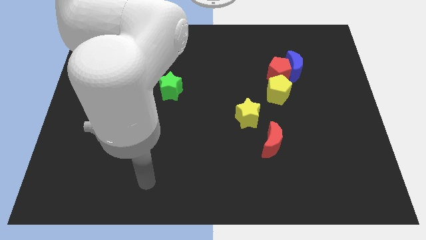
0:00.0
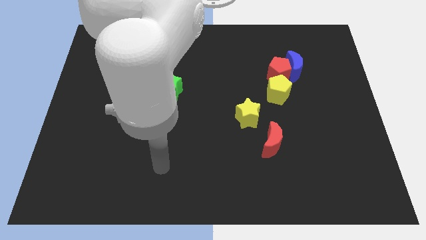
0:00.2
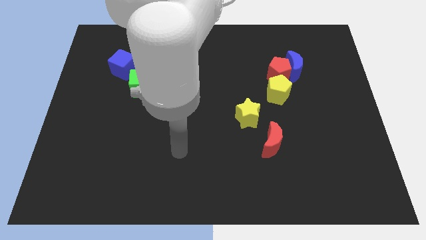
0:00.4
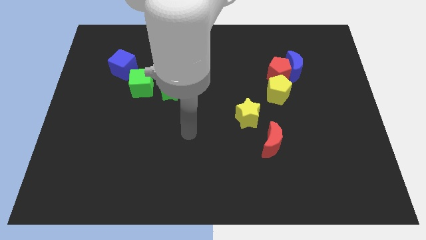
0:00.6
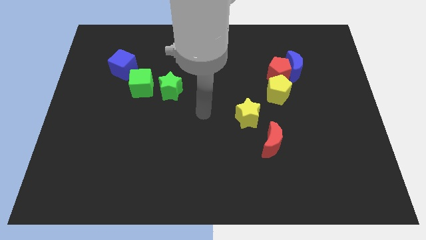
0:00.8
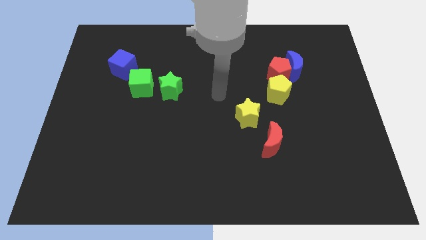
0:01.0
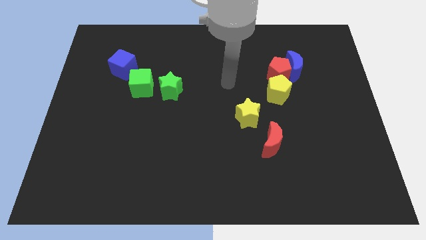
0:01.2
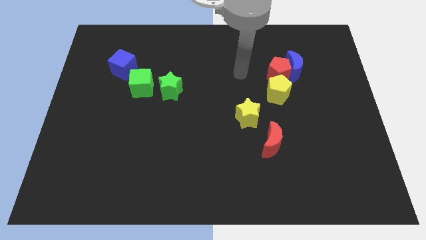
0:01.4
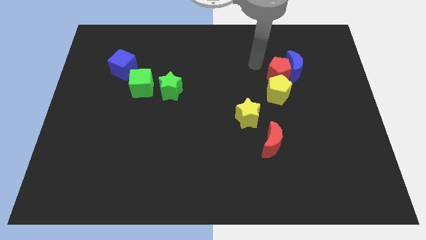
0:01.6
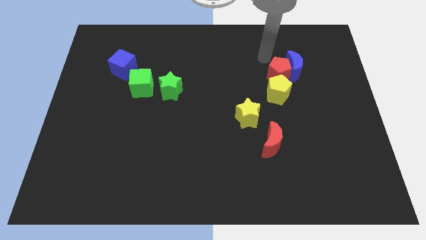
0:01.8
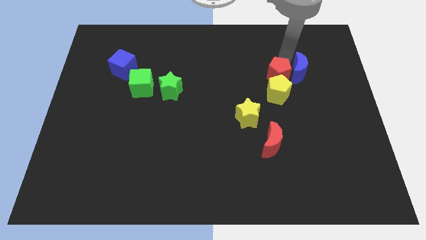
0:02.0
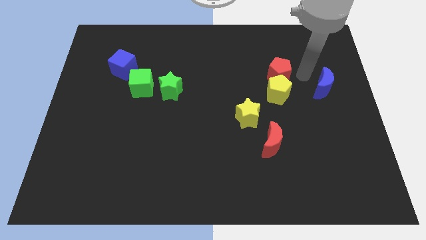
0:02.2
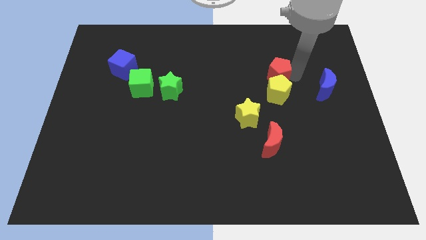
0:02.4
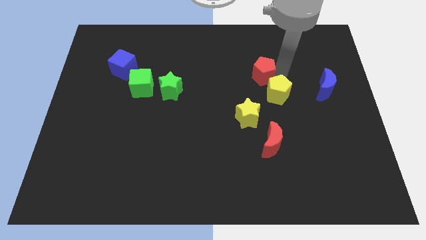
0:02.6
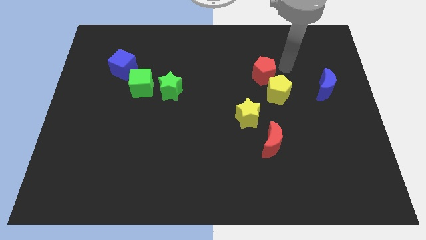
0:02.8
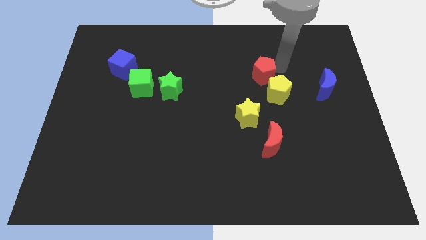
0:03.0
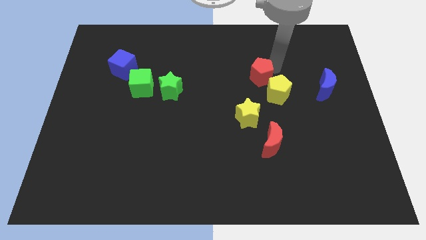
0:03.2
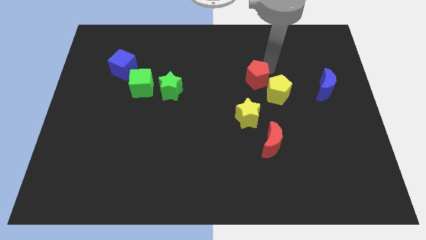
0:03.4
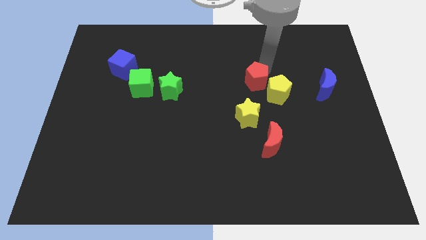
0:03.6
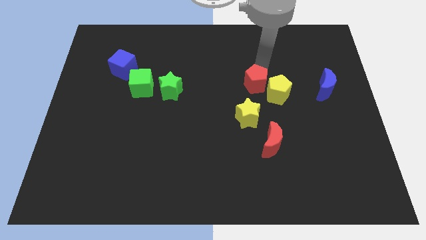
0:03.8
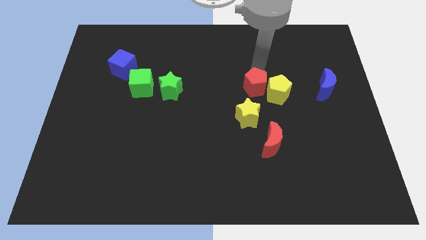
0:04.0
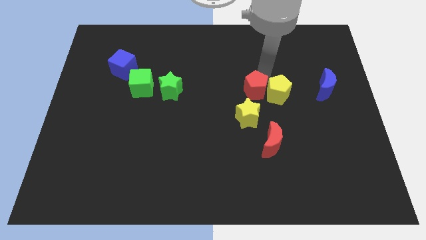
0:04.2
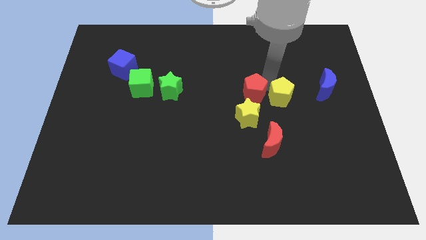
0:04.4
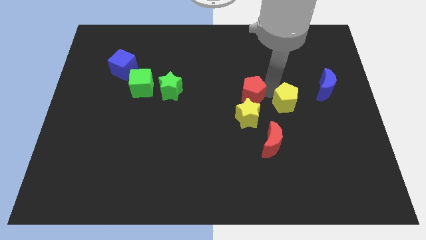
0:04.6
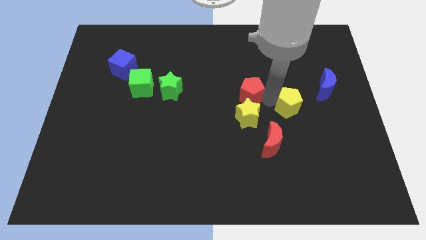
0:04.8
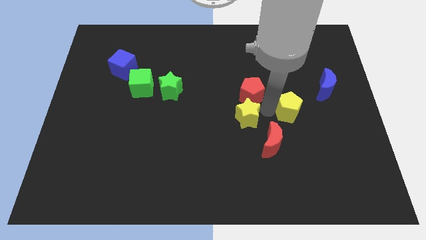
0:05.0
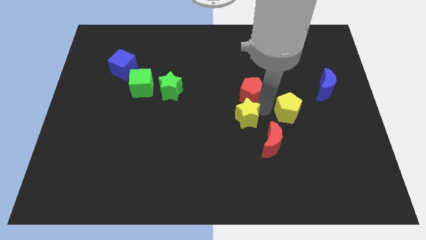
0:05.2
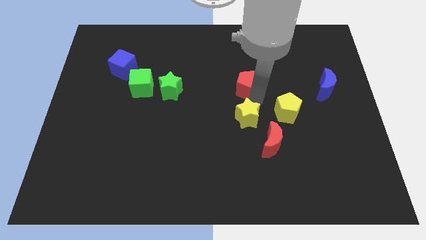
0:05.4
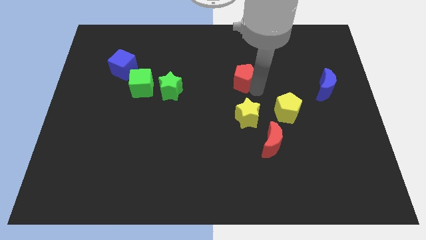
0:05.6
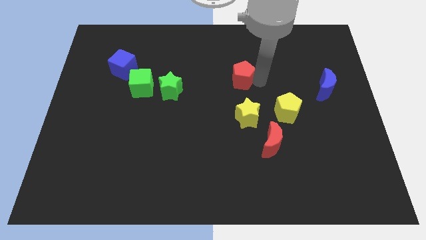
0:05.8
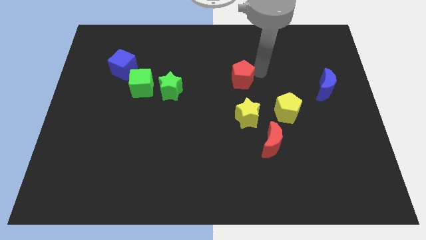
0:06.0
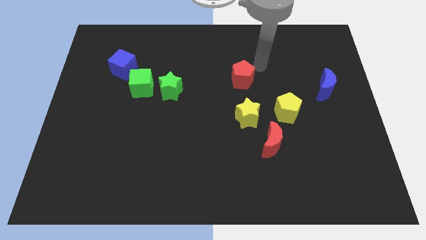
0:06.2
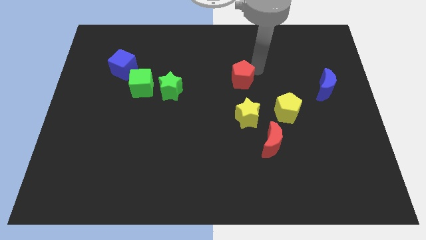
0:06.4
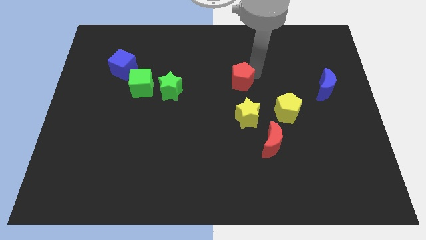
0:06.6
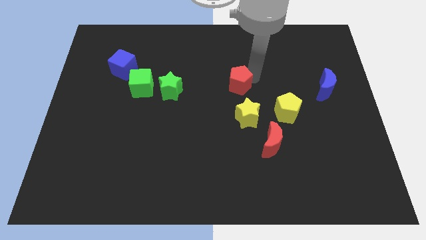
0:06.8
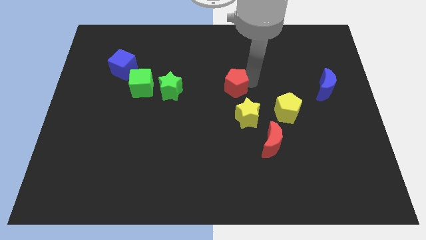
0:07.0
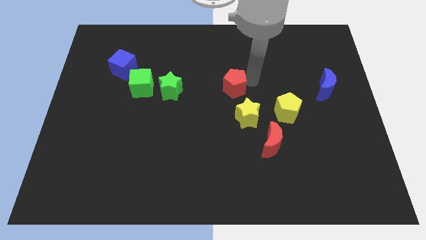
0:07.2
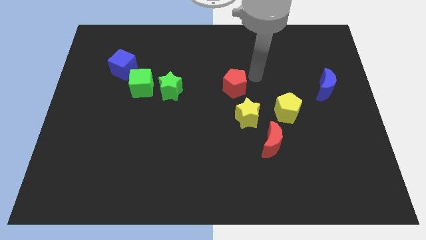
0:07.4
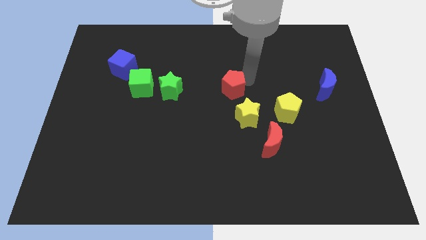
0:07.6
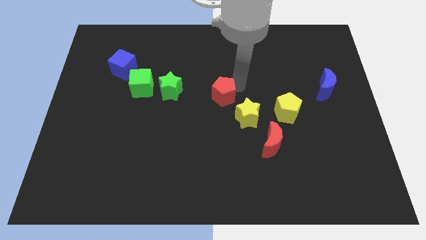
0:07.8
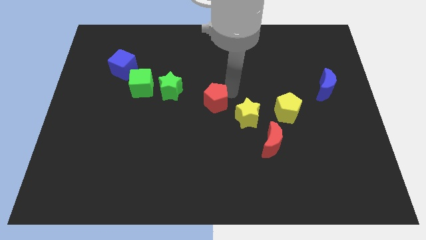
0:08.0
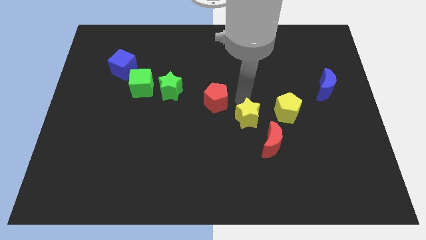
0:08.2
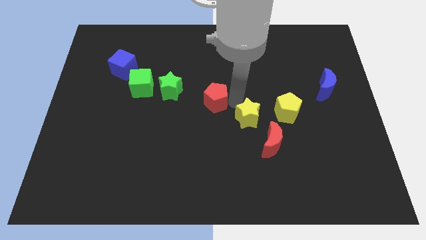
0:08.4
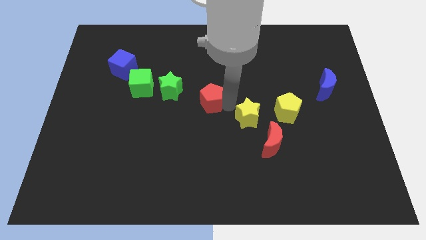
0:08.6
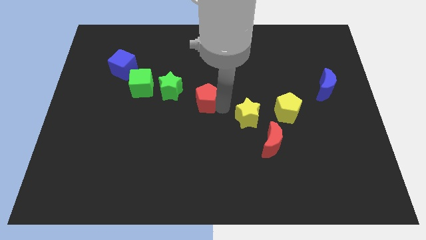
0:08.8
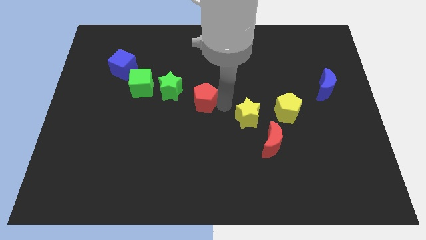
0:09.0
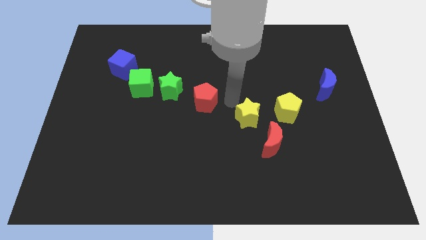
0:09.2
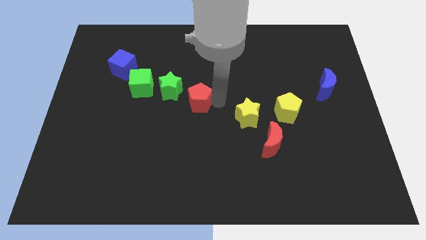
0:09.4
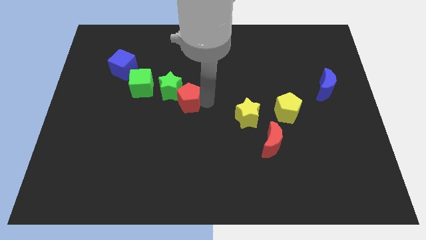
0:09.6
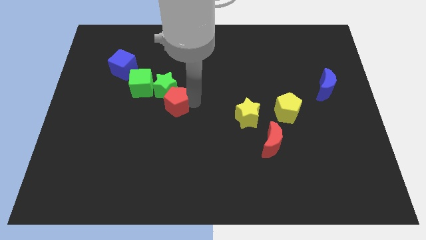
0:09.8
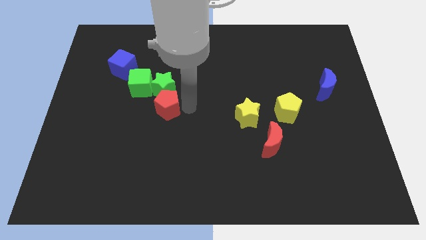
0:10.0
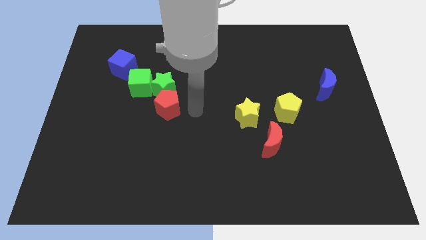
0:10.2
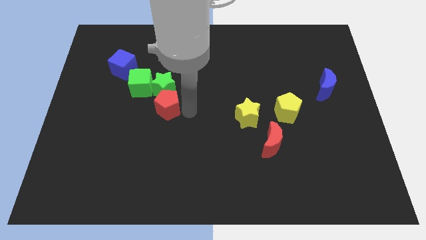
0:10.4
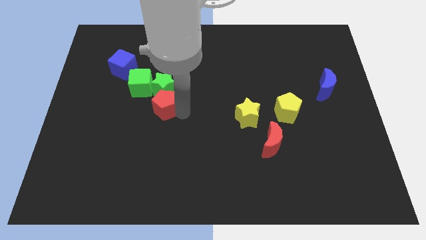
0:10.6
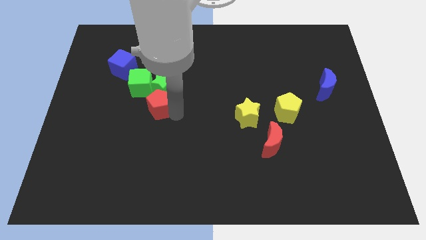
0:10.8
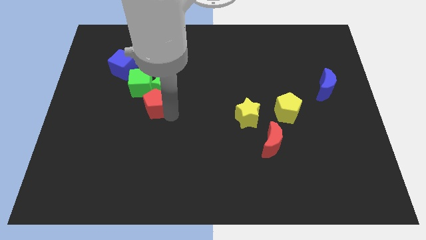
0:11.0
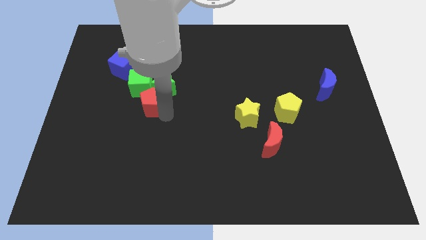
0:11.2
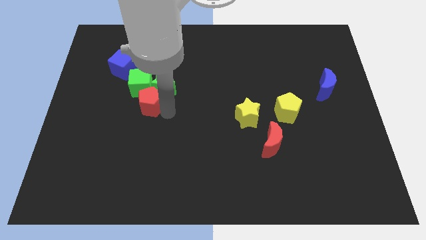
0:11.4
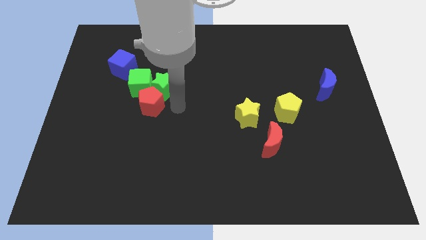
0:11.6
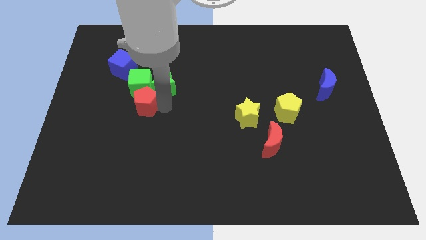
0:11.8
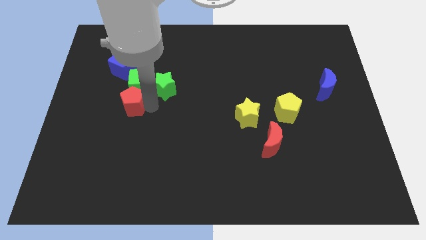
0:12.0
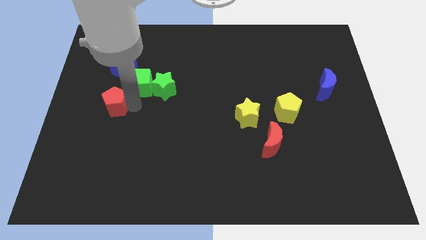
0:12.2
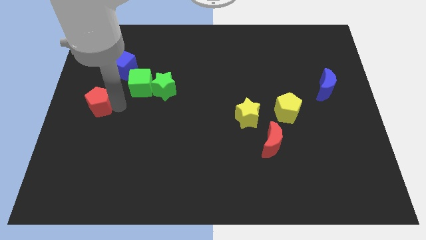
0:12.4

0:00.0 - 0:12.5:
move the red pentagon to the left side of the board
